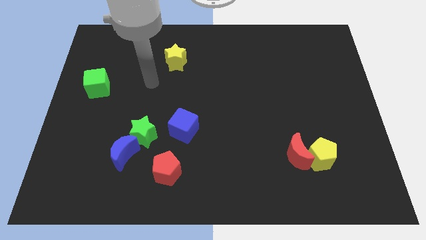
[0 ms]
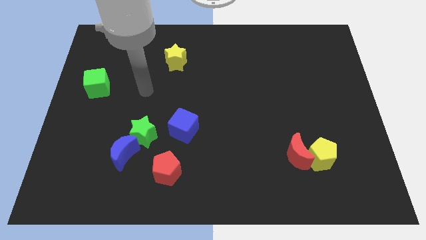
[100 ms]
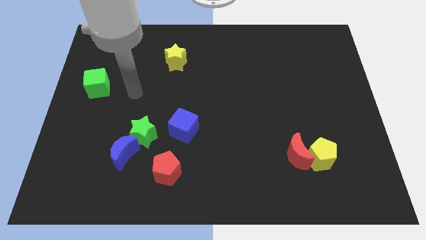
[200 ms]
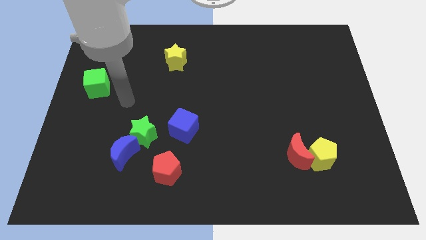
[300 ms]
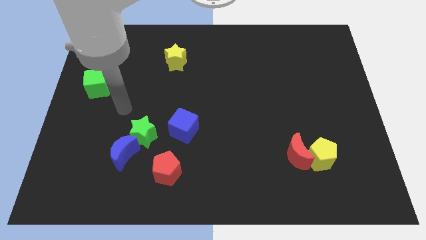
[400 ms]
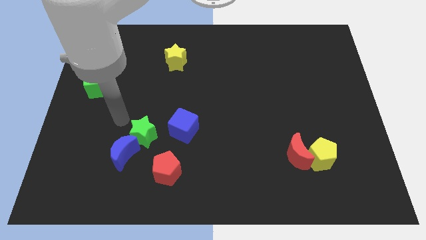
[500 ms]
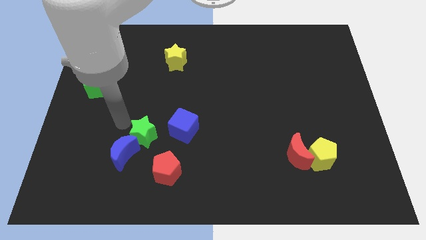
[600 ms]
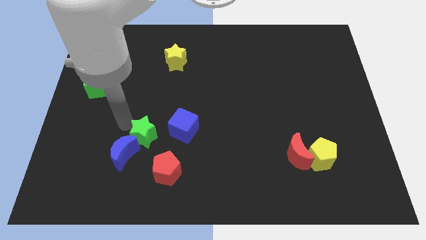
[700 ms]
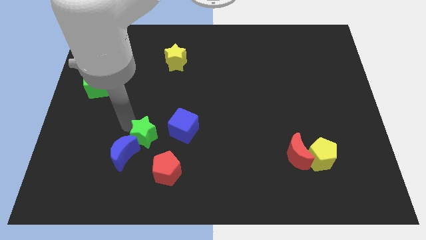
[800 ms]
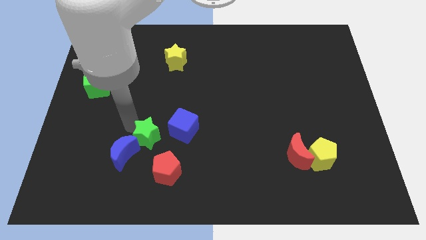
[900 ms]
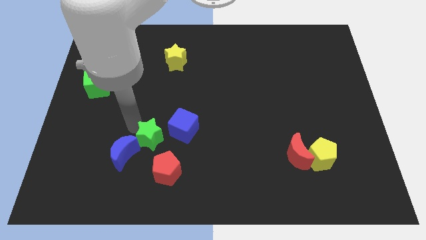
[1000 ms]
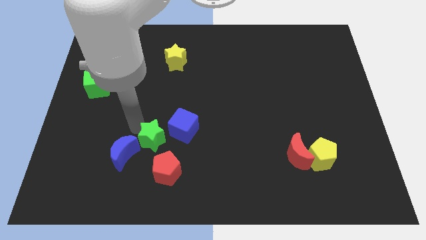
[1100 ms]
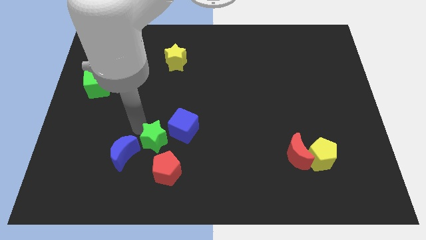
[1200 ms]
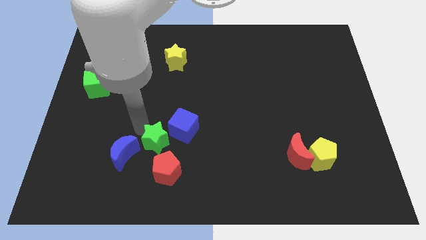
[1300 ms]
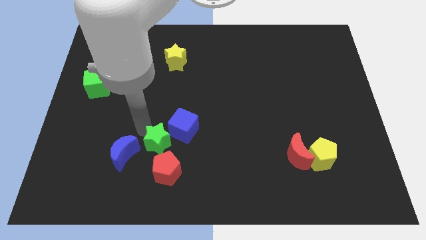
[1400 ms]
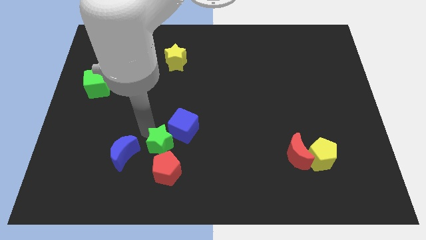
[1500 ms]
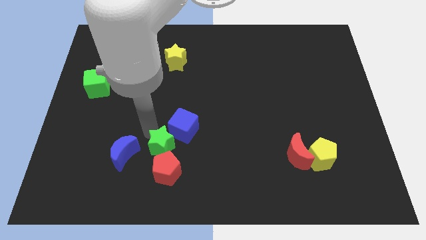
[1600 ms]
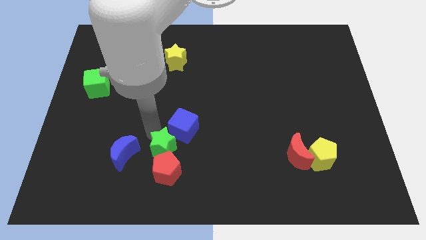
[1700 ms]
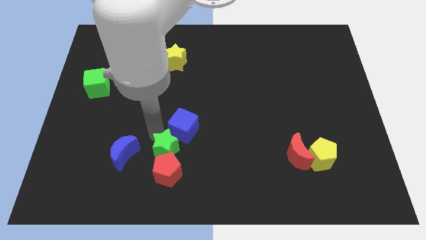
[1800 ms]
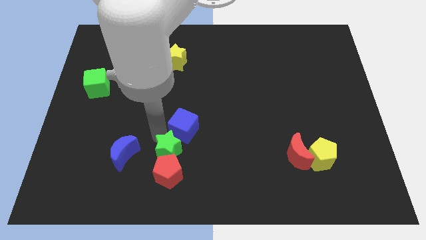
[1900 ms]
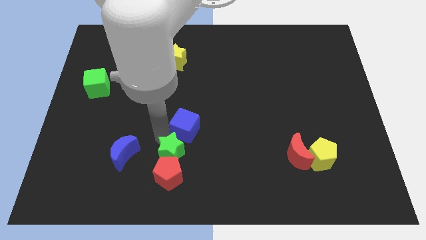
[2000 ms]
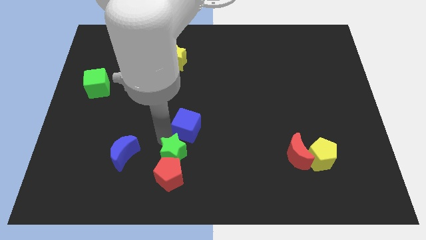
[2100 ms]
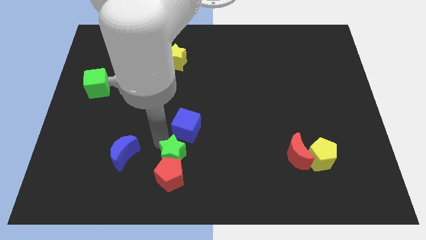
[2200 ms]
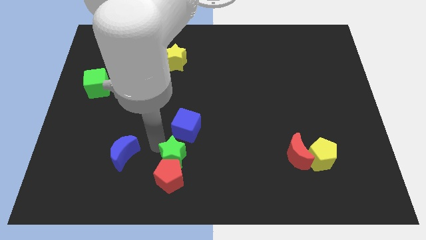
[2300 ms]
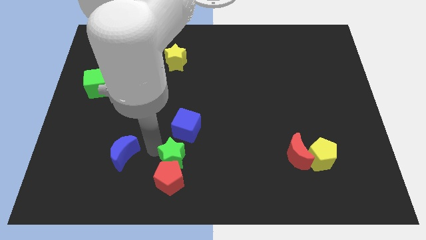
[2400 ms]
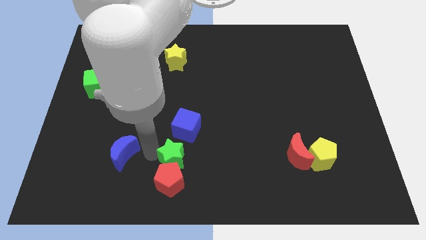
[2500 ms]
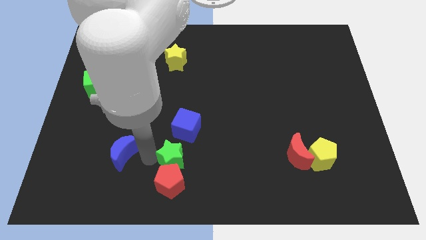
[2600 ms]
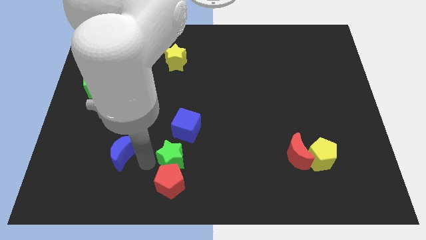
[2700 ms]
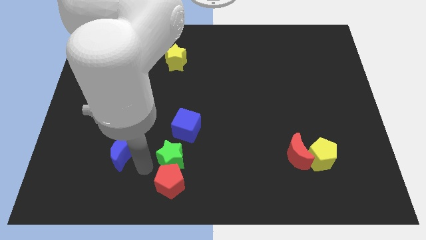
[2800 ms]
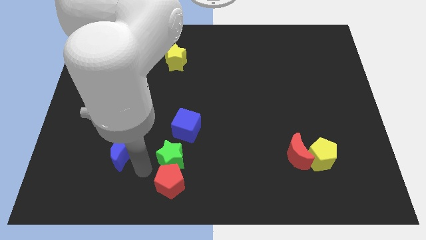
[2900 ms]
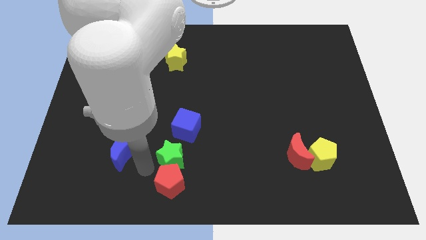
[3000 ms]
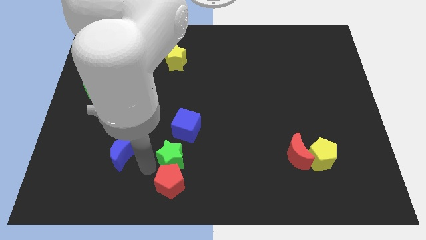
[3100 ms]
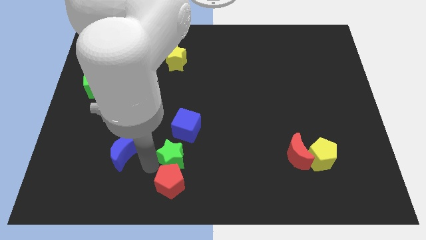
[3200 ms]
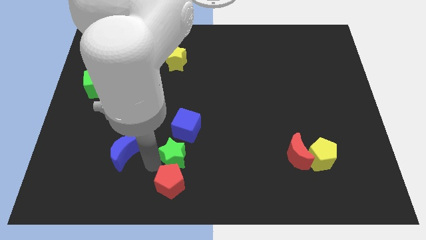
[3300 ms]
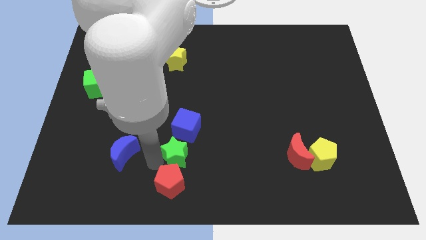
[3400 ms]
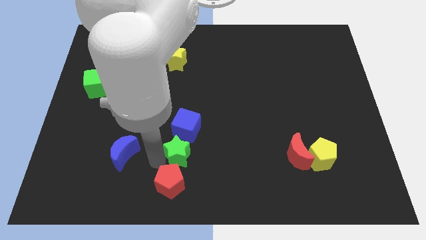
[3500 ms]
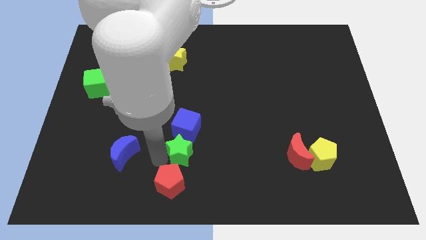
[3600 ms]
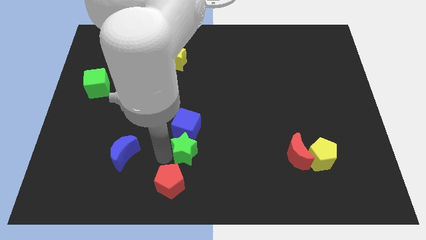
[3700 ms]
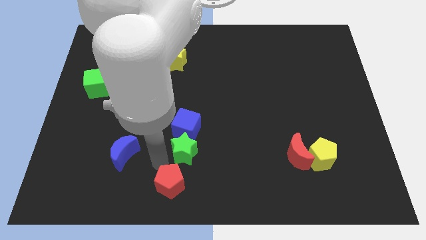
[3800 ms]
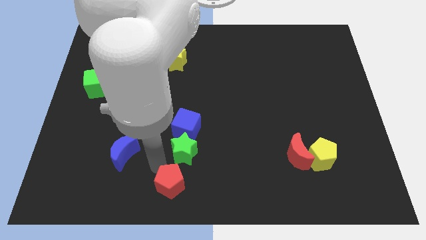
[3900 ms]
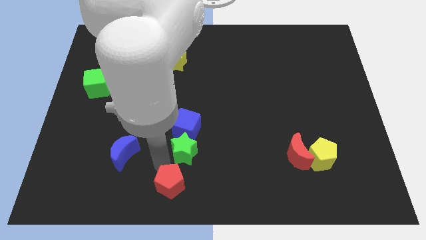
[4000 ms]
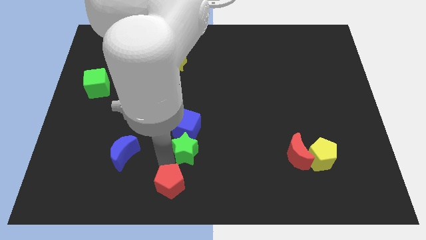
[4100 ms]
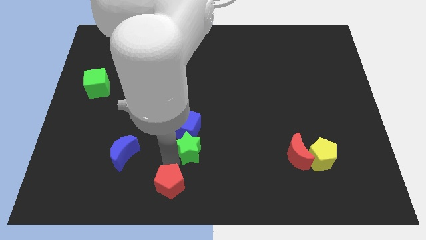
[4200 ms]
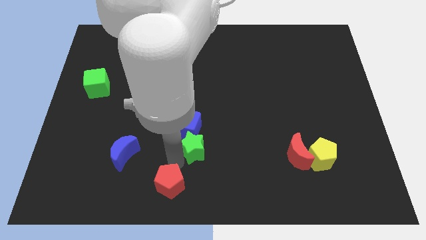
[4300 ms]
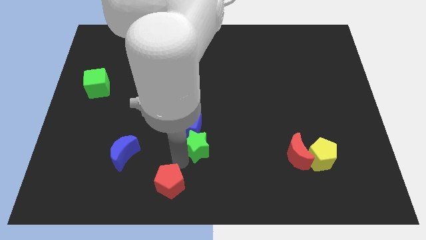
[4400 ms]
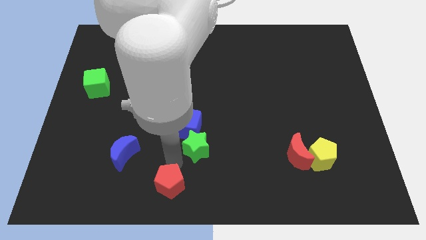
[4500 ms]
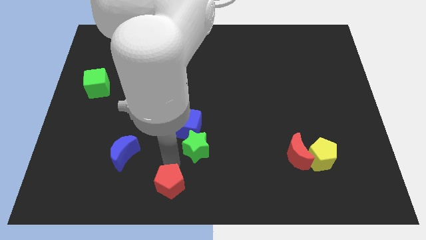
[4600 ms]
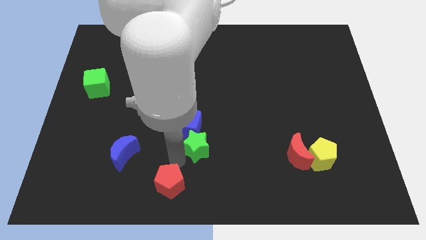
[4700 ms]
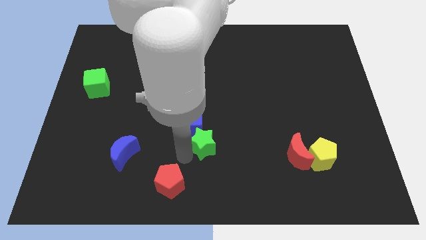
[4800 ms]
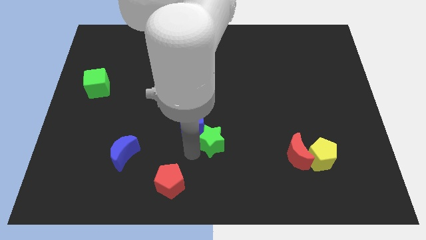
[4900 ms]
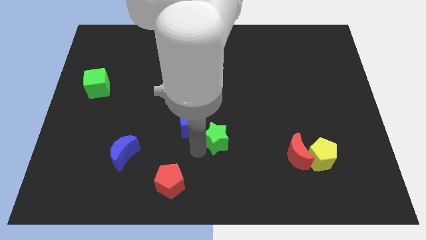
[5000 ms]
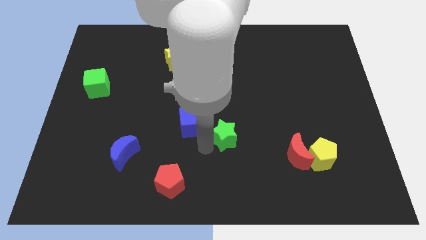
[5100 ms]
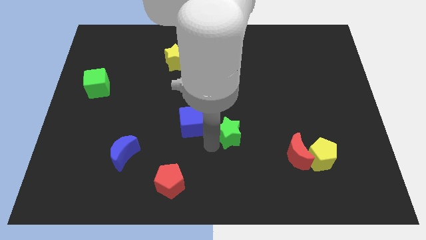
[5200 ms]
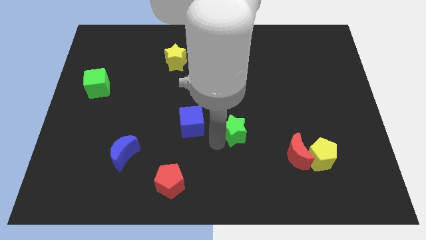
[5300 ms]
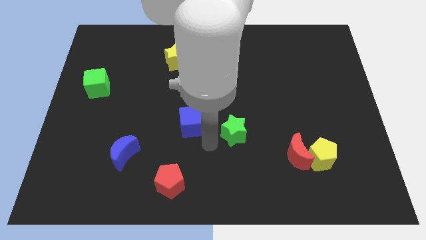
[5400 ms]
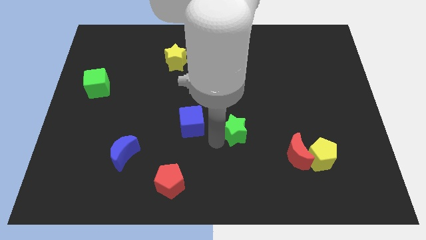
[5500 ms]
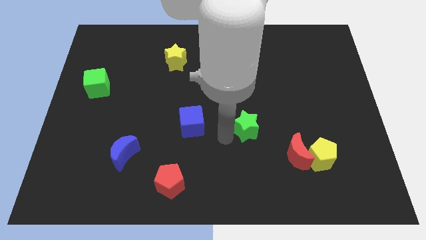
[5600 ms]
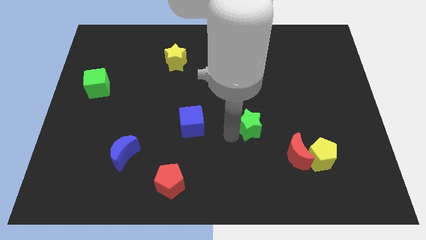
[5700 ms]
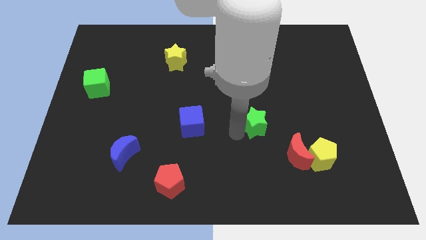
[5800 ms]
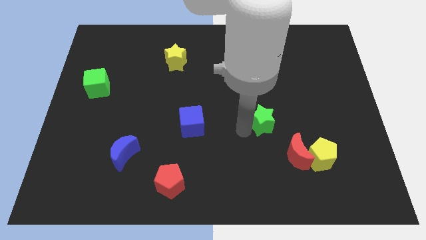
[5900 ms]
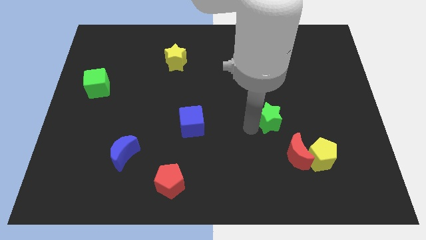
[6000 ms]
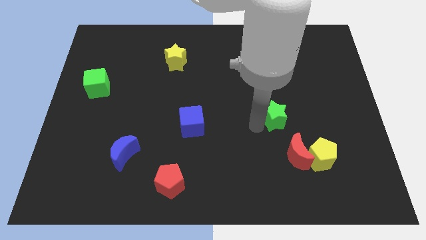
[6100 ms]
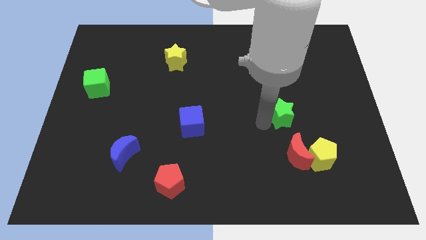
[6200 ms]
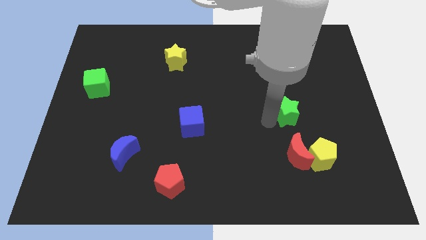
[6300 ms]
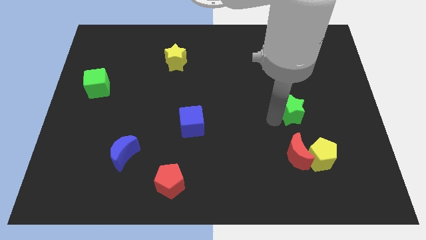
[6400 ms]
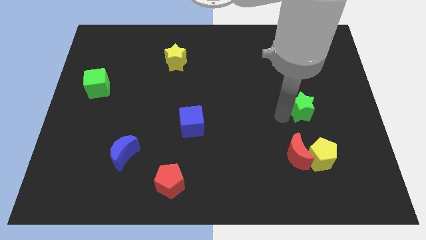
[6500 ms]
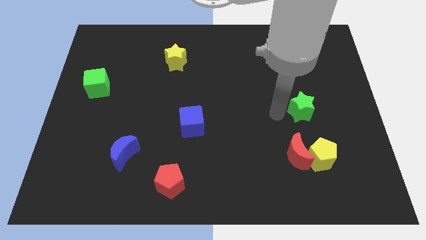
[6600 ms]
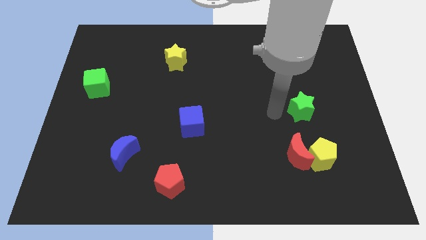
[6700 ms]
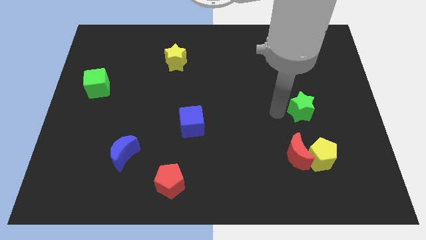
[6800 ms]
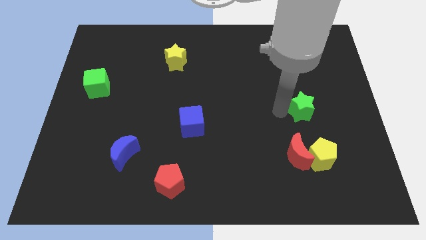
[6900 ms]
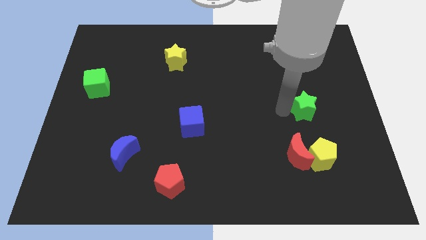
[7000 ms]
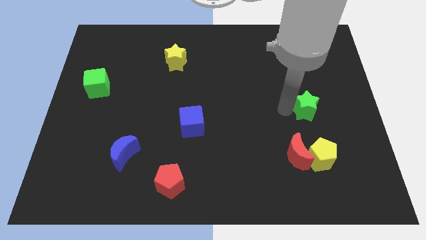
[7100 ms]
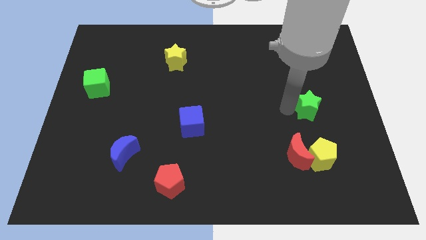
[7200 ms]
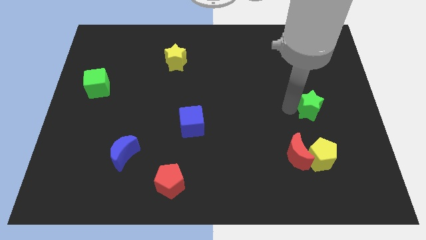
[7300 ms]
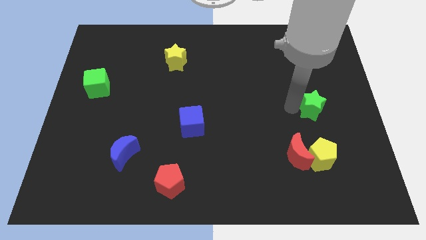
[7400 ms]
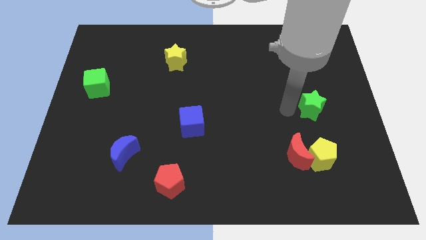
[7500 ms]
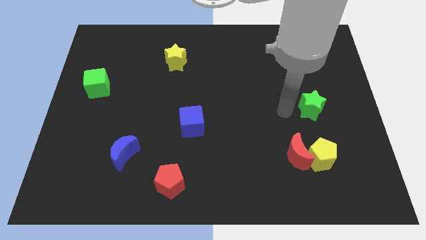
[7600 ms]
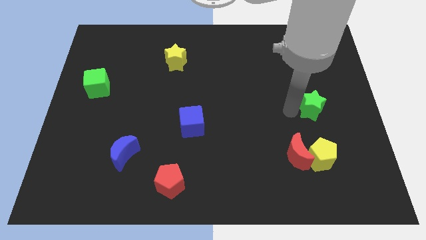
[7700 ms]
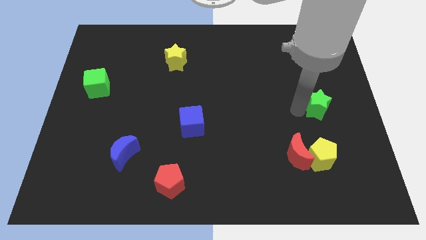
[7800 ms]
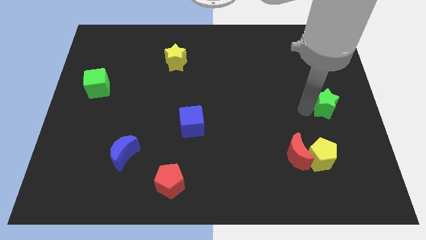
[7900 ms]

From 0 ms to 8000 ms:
push the green star to the right side
